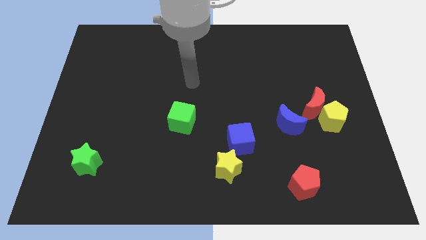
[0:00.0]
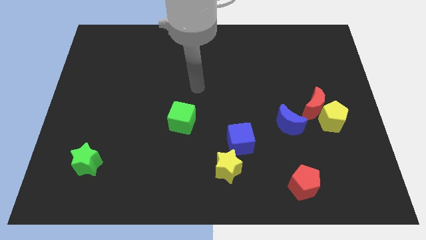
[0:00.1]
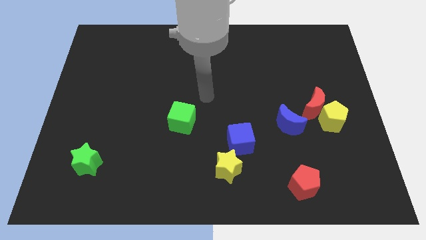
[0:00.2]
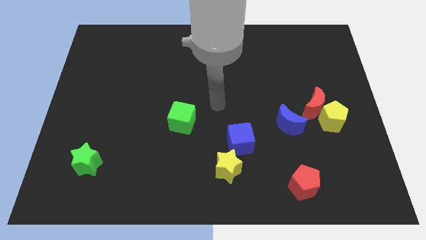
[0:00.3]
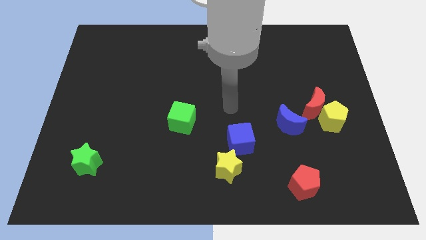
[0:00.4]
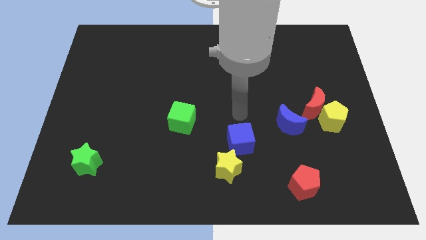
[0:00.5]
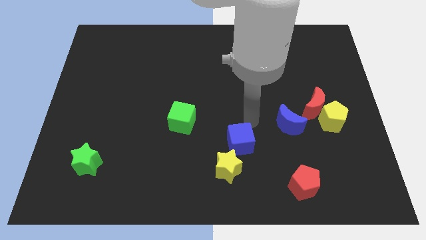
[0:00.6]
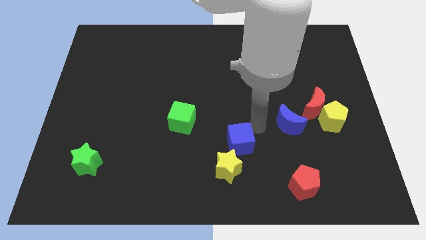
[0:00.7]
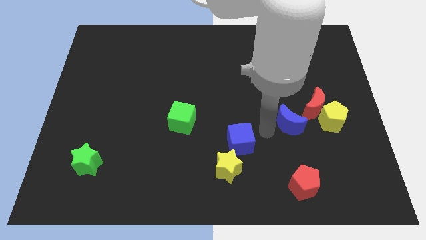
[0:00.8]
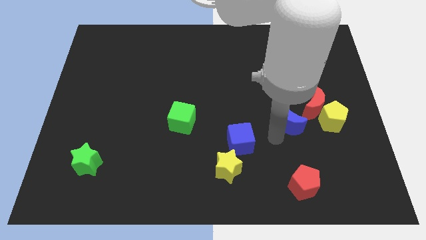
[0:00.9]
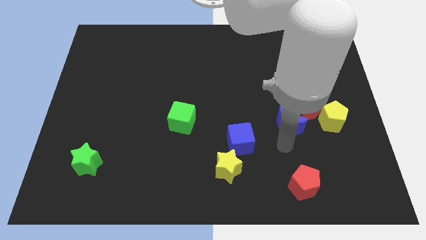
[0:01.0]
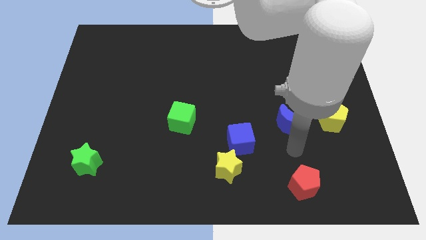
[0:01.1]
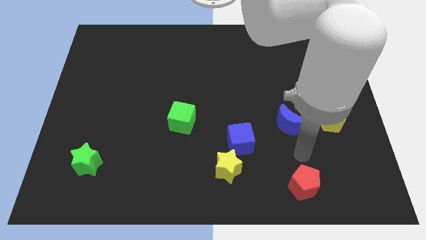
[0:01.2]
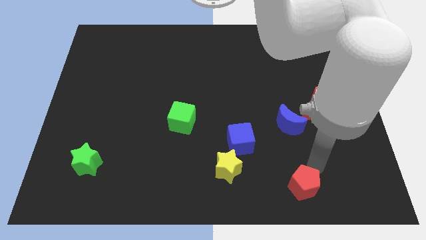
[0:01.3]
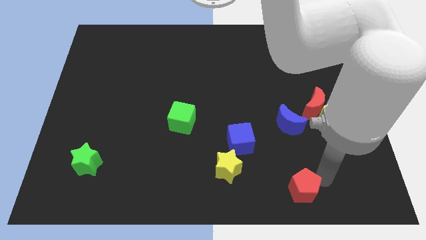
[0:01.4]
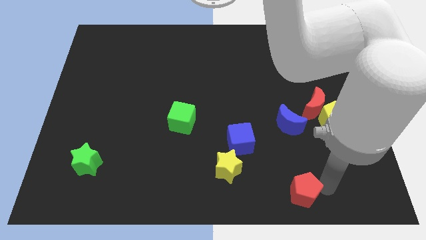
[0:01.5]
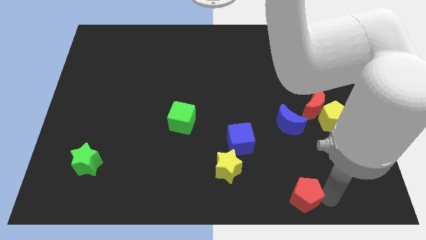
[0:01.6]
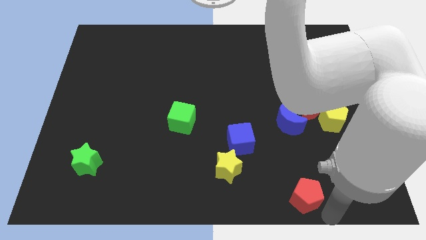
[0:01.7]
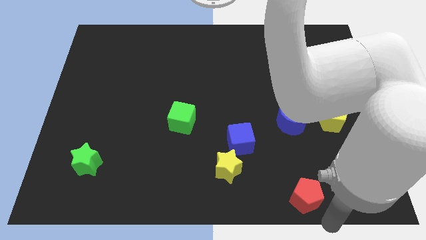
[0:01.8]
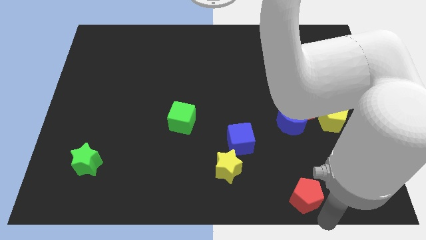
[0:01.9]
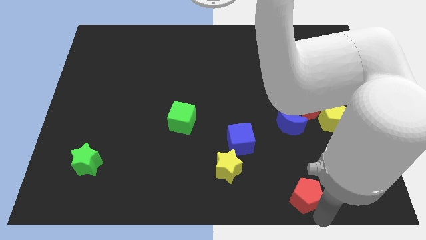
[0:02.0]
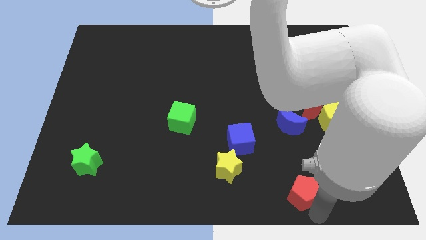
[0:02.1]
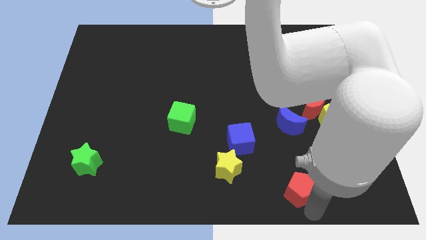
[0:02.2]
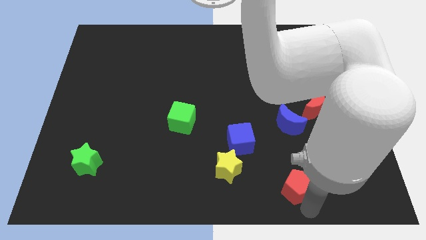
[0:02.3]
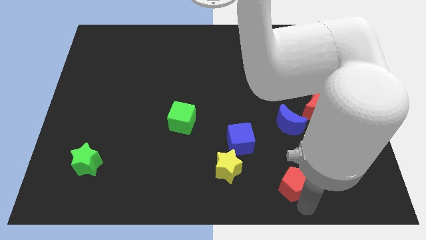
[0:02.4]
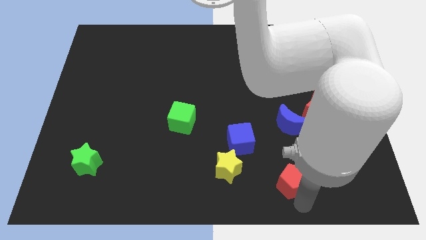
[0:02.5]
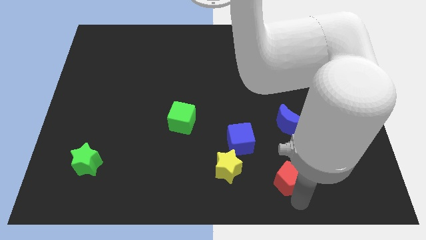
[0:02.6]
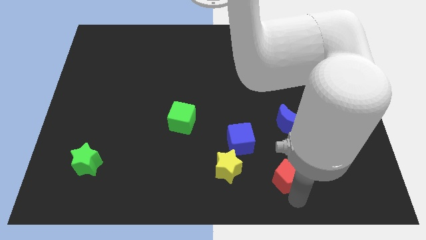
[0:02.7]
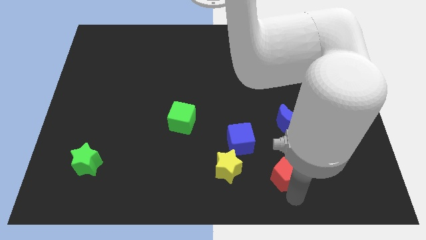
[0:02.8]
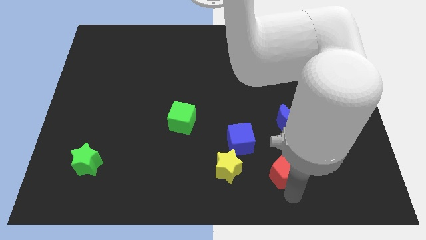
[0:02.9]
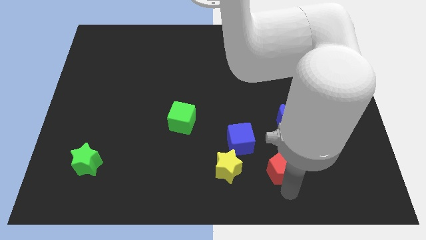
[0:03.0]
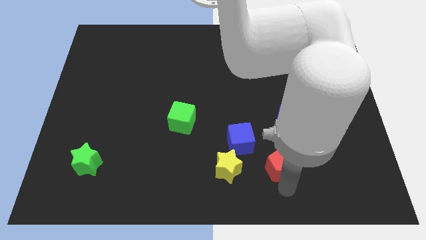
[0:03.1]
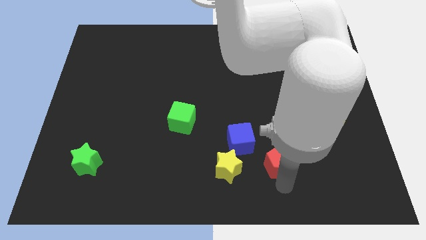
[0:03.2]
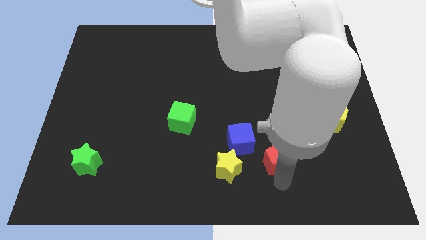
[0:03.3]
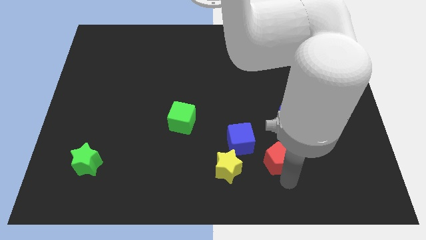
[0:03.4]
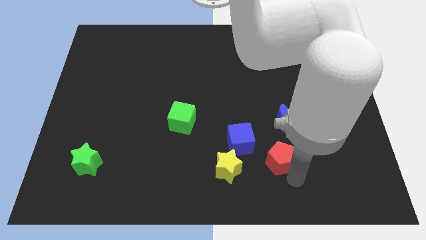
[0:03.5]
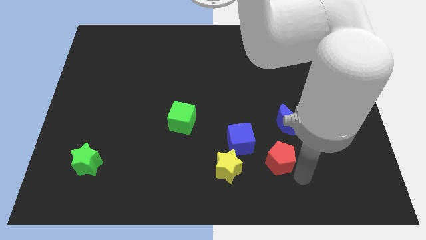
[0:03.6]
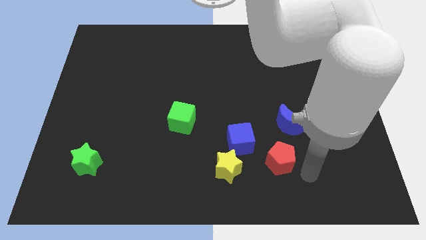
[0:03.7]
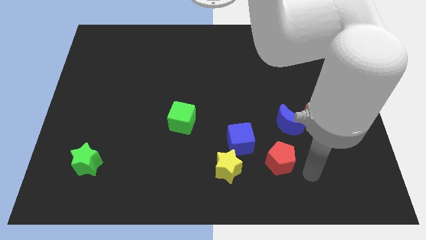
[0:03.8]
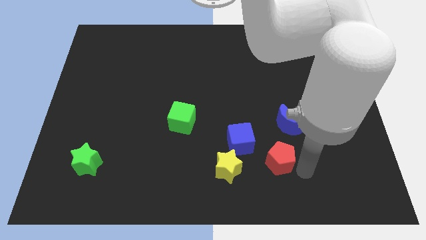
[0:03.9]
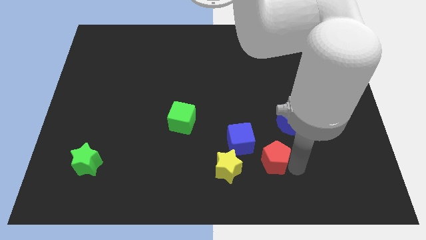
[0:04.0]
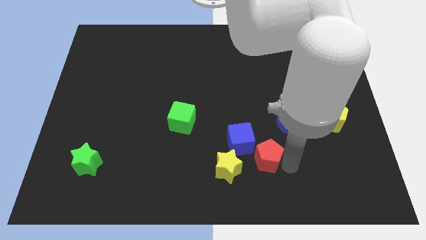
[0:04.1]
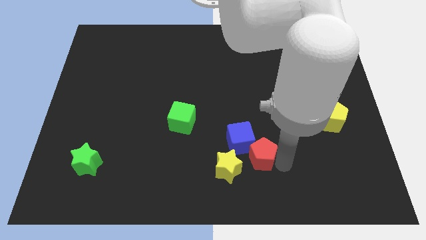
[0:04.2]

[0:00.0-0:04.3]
slide the red pentagon towards the blue cube

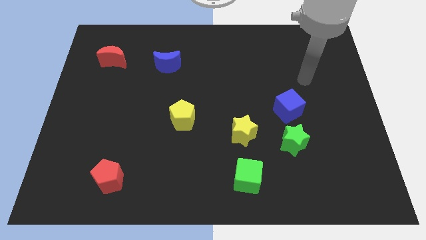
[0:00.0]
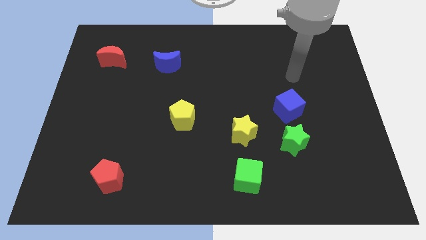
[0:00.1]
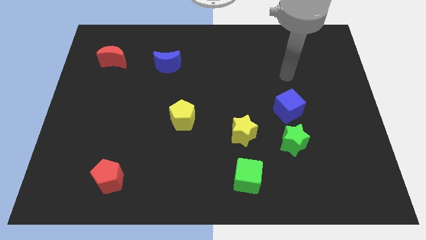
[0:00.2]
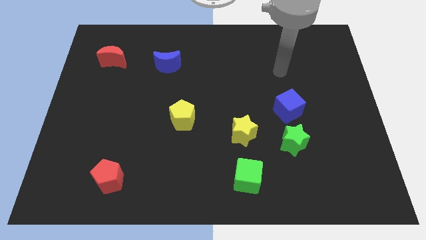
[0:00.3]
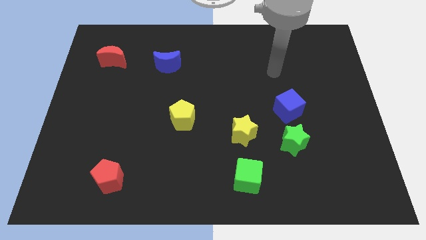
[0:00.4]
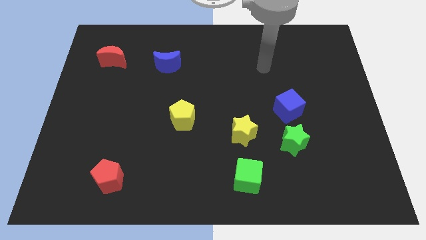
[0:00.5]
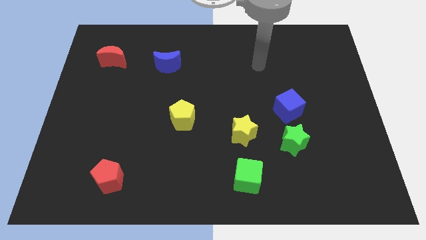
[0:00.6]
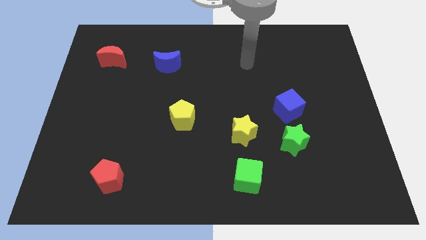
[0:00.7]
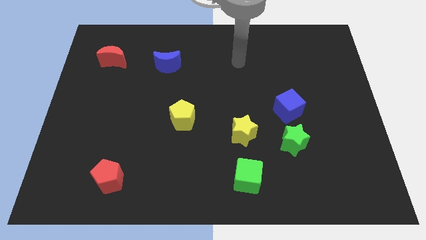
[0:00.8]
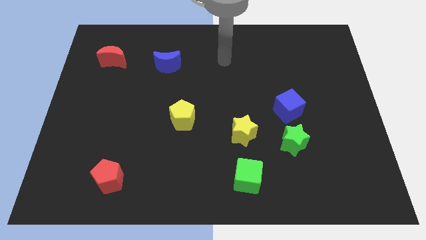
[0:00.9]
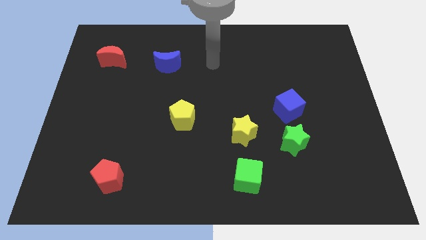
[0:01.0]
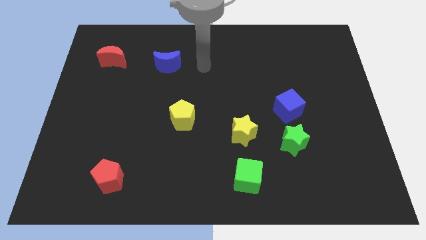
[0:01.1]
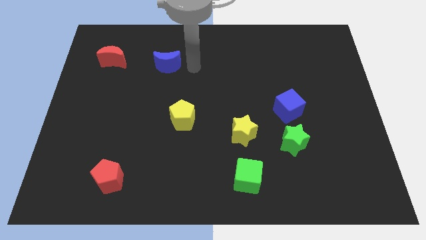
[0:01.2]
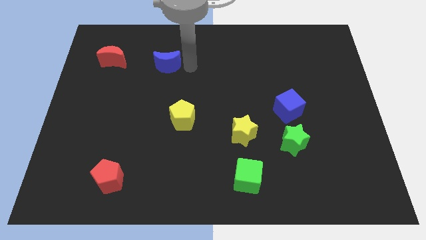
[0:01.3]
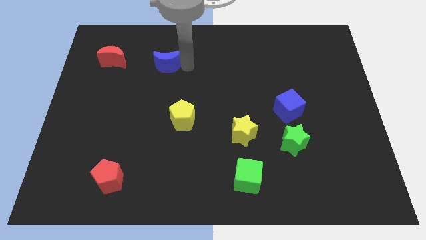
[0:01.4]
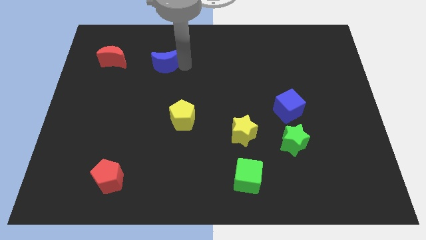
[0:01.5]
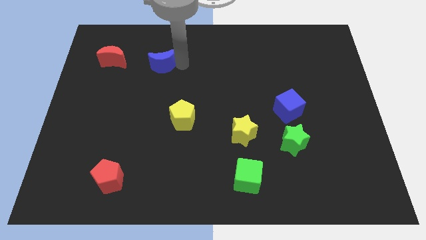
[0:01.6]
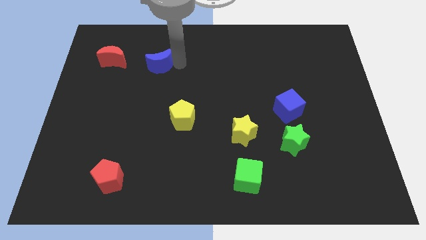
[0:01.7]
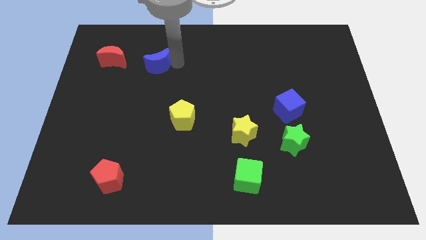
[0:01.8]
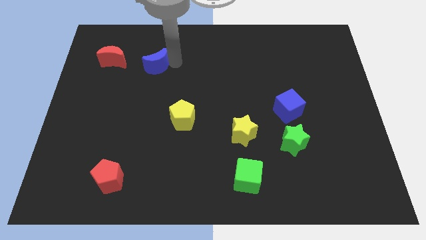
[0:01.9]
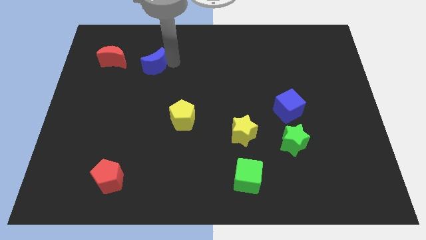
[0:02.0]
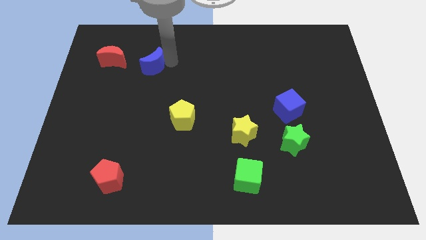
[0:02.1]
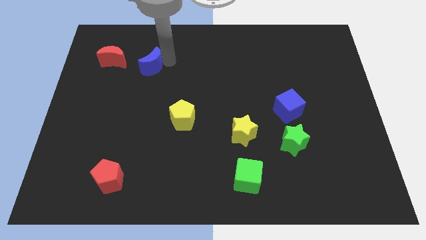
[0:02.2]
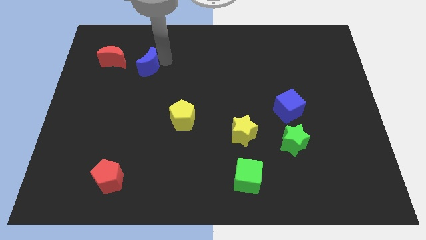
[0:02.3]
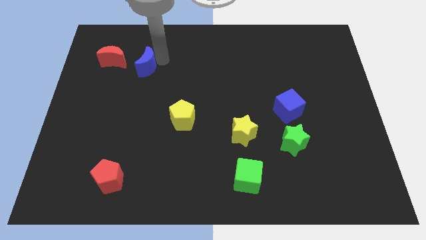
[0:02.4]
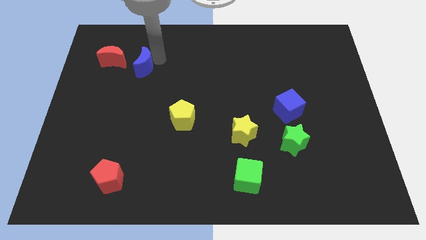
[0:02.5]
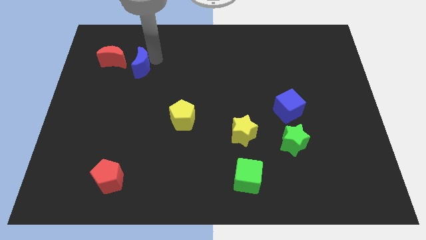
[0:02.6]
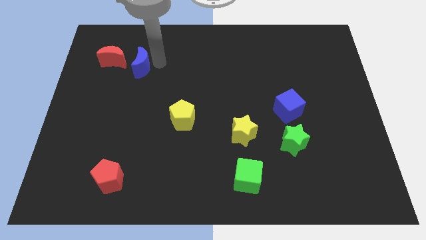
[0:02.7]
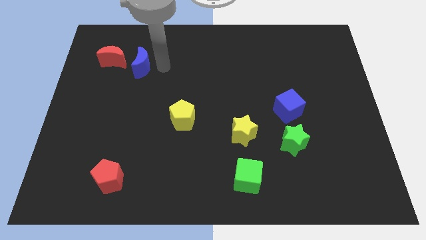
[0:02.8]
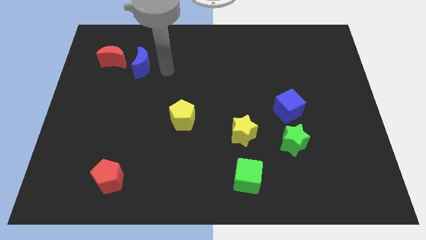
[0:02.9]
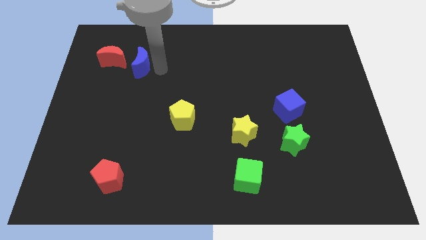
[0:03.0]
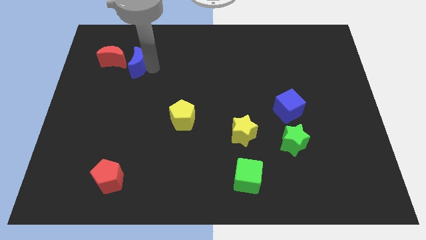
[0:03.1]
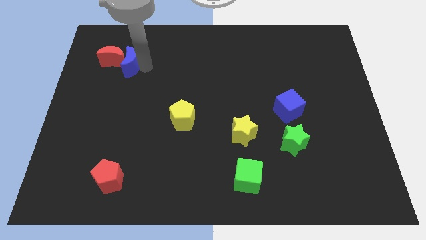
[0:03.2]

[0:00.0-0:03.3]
move the blue moon next to the red moon
